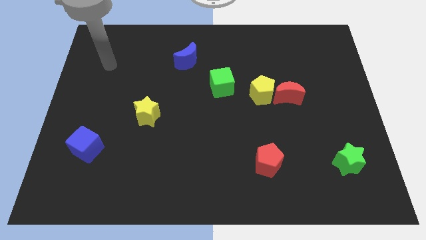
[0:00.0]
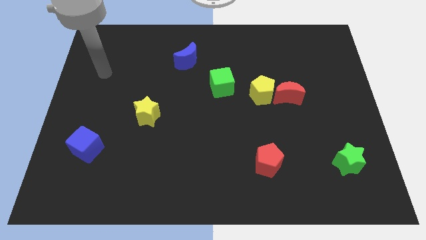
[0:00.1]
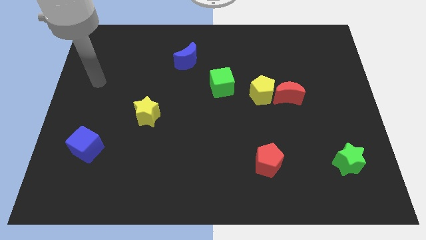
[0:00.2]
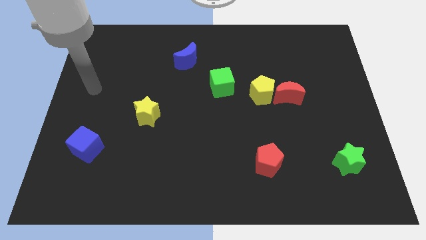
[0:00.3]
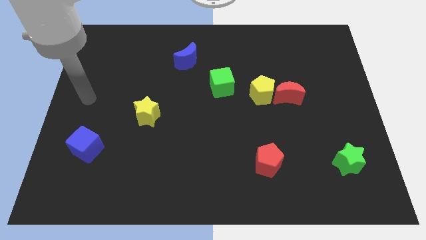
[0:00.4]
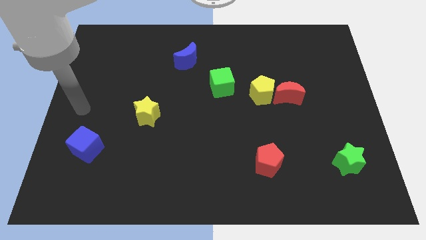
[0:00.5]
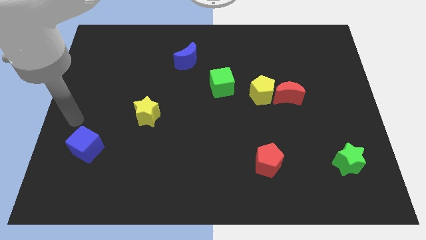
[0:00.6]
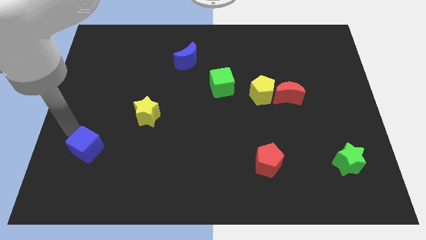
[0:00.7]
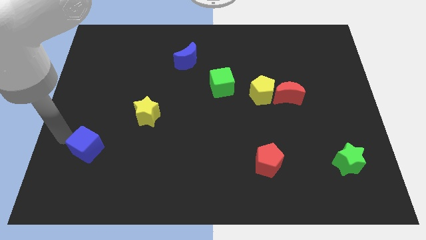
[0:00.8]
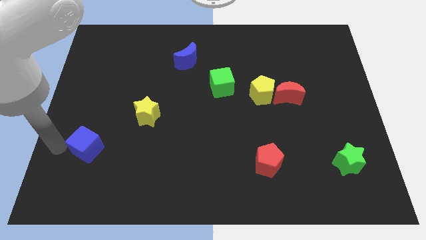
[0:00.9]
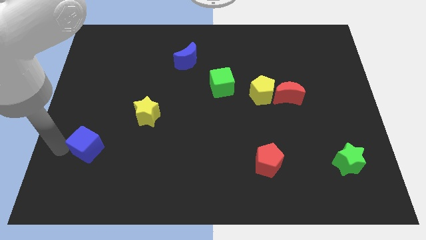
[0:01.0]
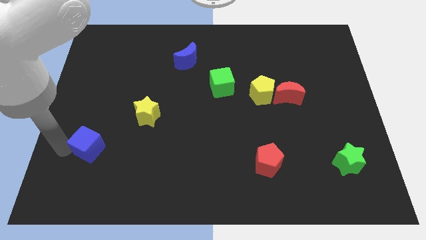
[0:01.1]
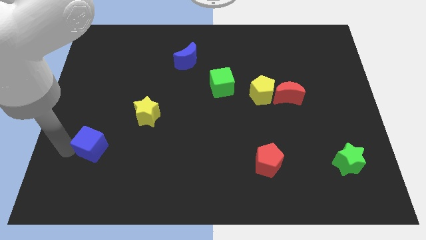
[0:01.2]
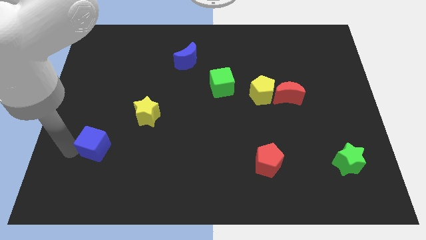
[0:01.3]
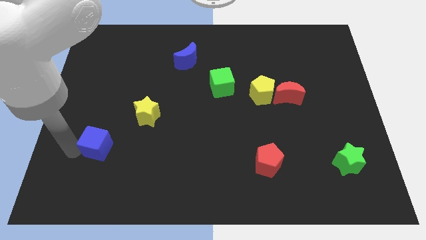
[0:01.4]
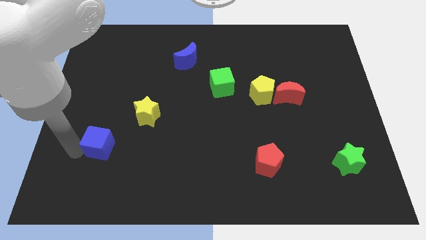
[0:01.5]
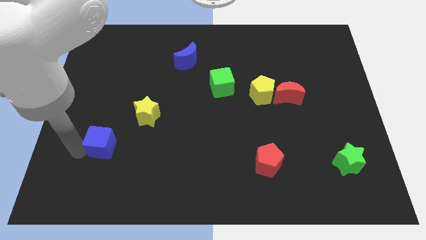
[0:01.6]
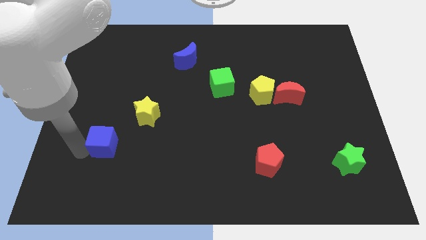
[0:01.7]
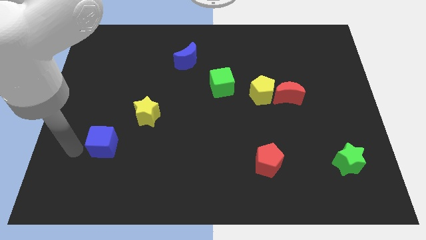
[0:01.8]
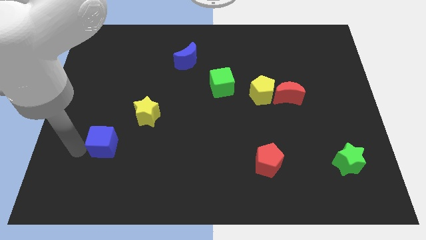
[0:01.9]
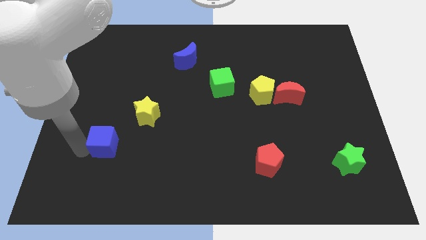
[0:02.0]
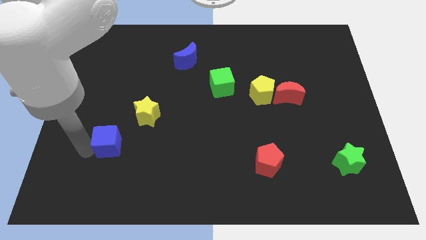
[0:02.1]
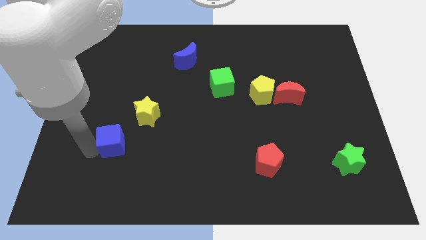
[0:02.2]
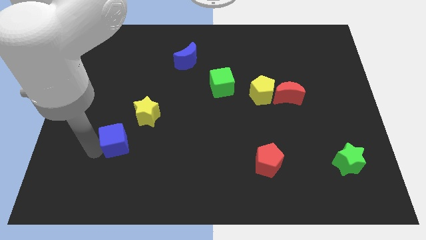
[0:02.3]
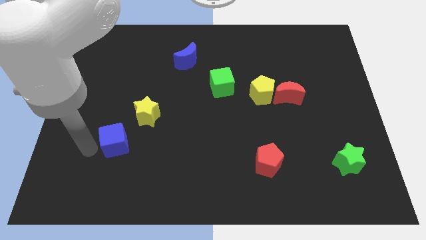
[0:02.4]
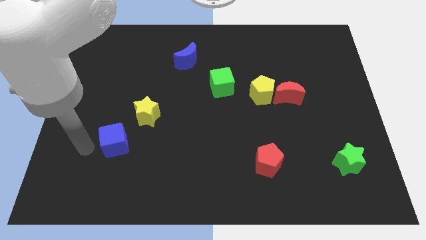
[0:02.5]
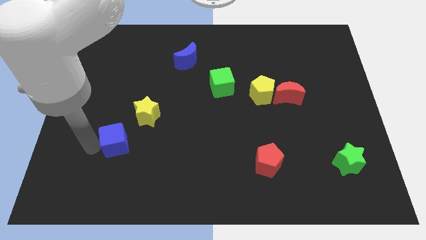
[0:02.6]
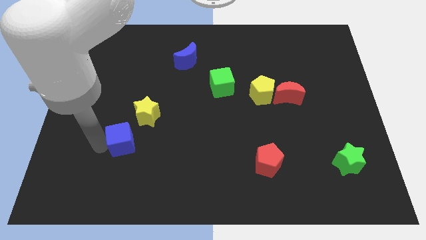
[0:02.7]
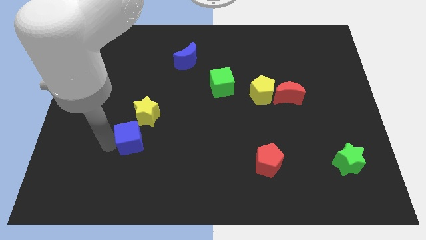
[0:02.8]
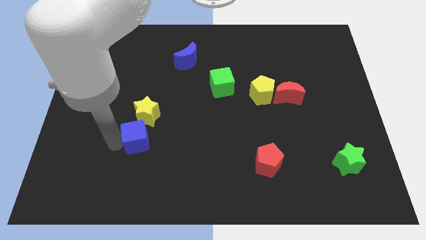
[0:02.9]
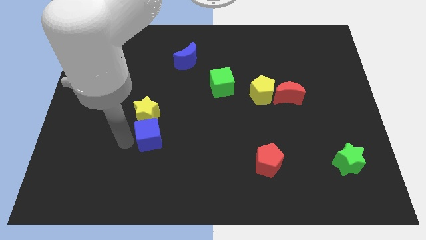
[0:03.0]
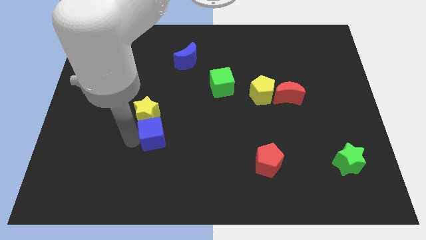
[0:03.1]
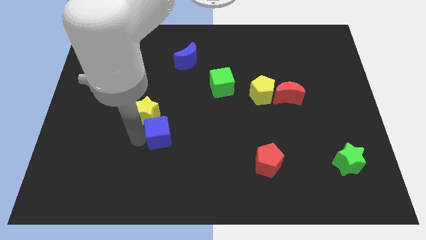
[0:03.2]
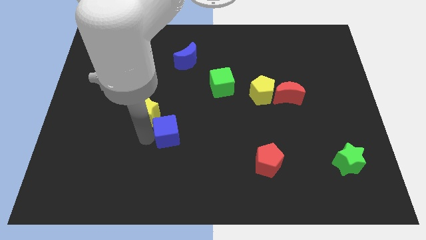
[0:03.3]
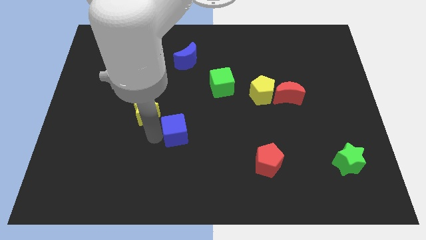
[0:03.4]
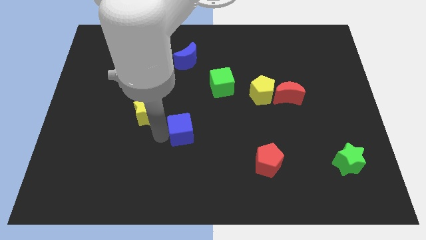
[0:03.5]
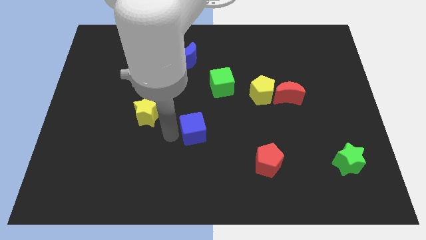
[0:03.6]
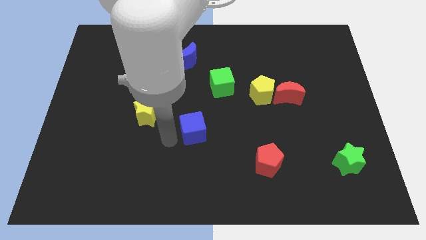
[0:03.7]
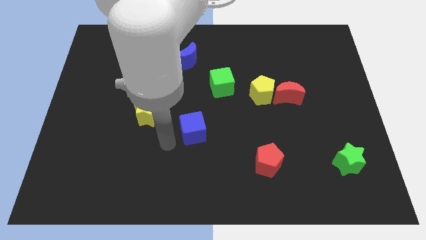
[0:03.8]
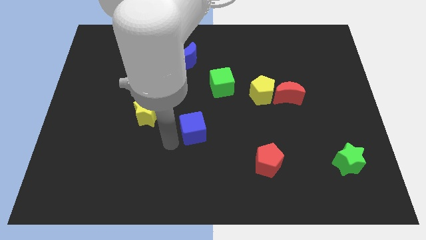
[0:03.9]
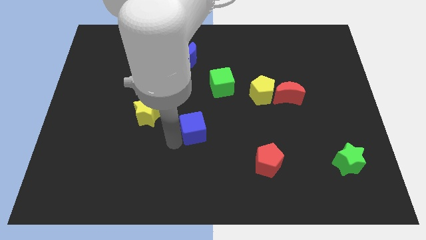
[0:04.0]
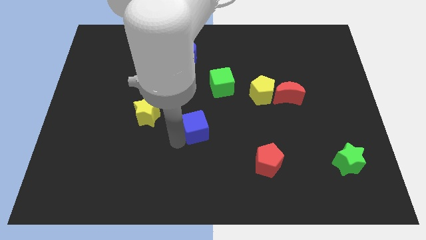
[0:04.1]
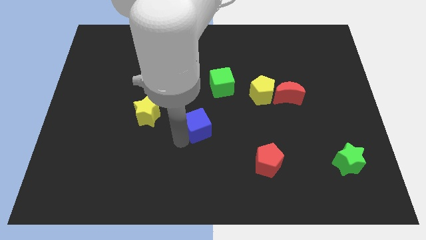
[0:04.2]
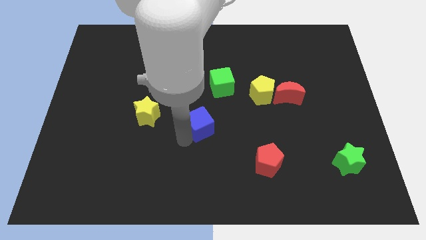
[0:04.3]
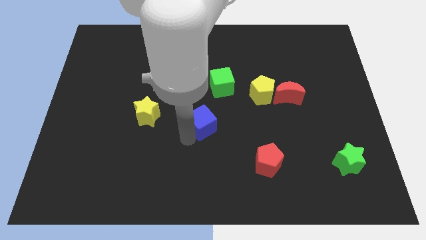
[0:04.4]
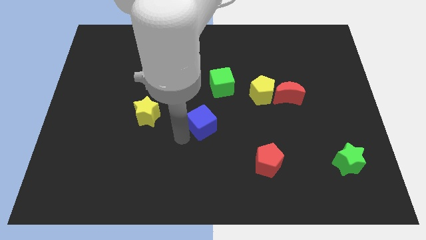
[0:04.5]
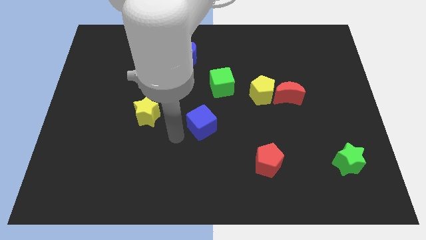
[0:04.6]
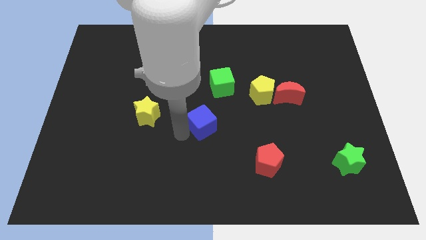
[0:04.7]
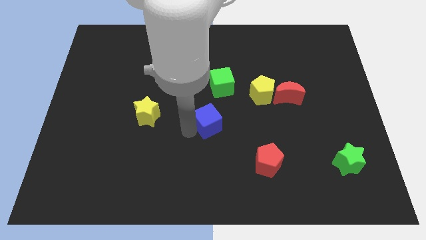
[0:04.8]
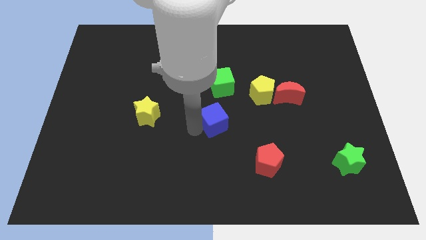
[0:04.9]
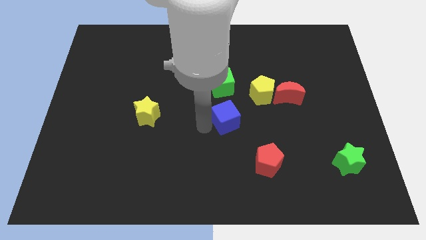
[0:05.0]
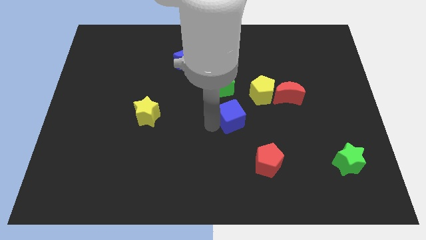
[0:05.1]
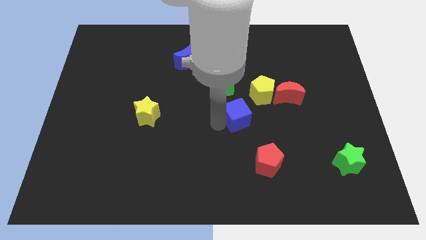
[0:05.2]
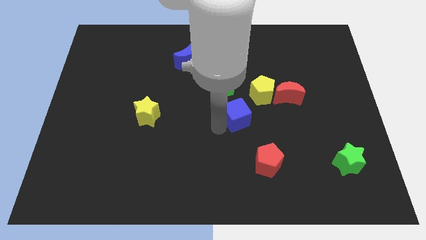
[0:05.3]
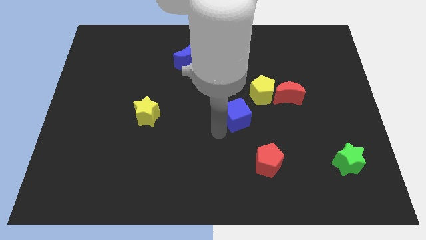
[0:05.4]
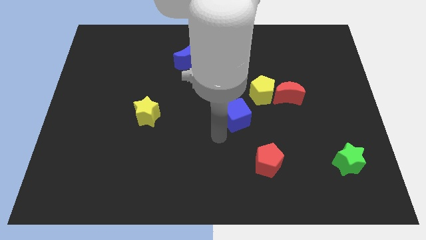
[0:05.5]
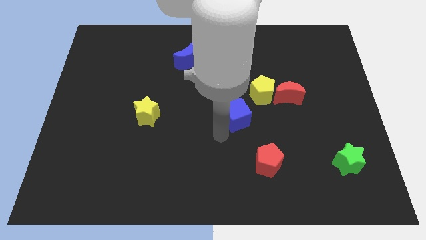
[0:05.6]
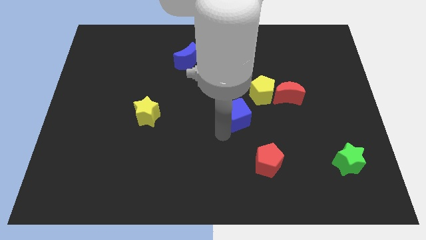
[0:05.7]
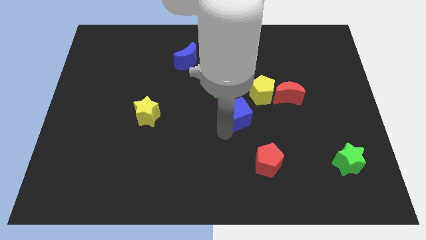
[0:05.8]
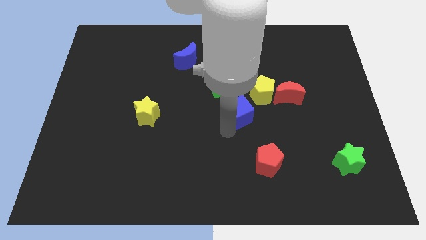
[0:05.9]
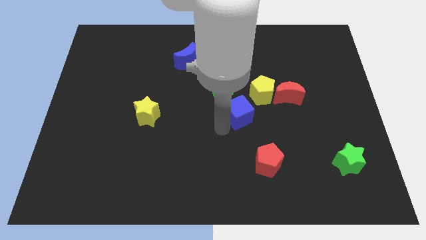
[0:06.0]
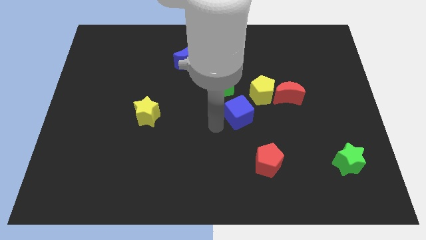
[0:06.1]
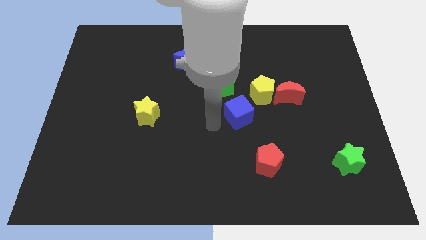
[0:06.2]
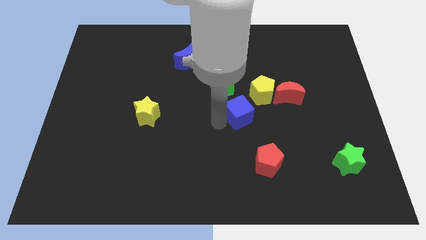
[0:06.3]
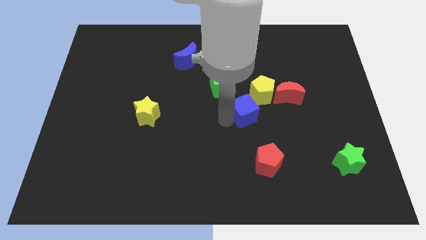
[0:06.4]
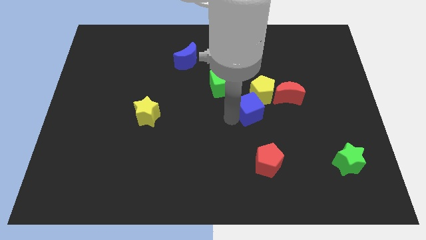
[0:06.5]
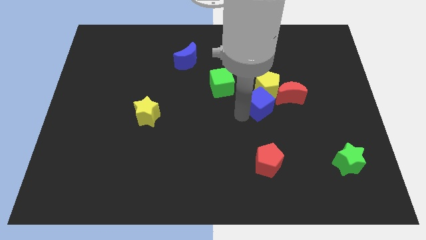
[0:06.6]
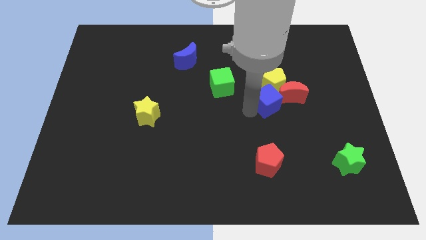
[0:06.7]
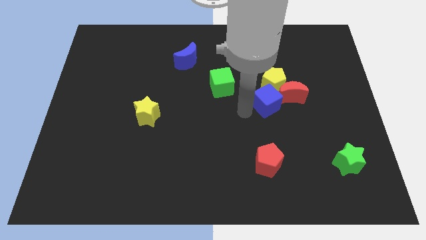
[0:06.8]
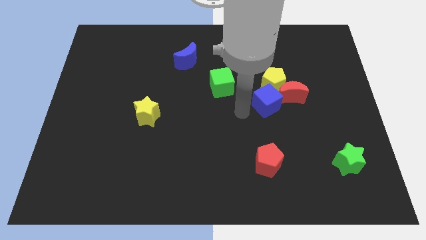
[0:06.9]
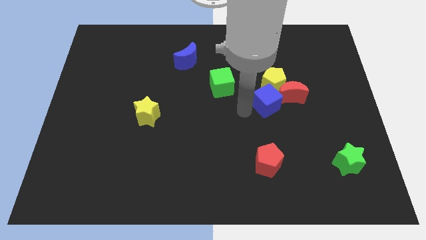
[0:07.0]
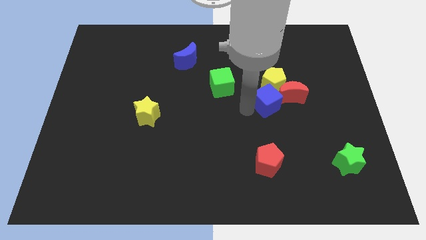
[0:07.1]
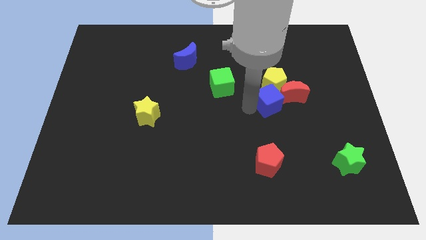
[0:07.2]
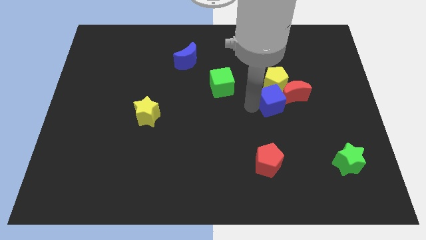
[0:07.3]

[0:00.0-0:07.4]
push the blue cube close to the red moon
